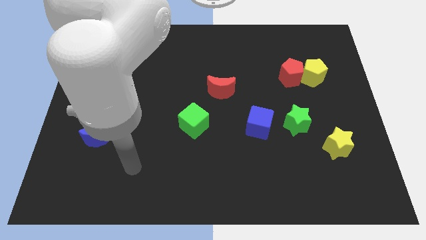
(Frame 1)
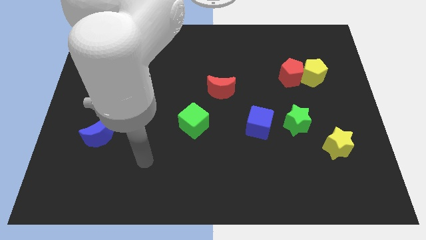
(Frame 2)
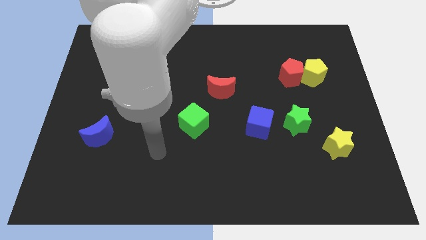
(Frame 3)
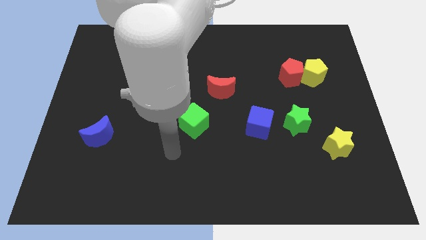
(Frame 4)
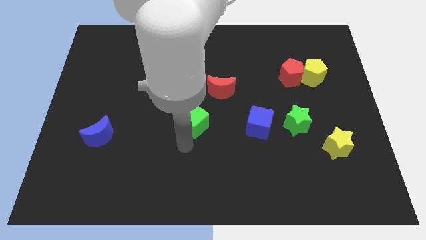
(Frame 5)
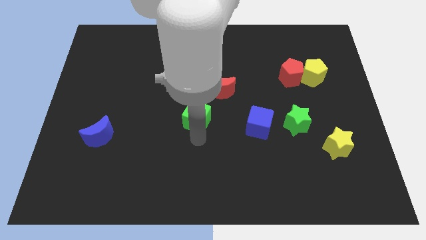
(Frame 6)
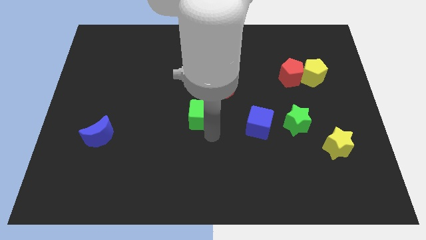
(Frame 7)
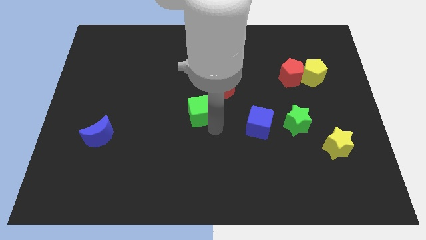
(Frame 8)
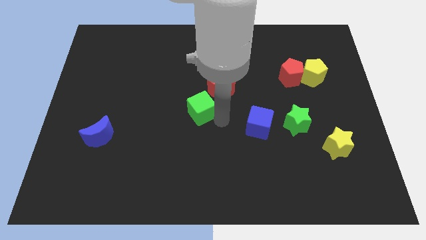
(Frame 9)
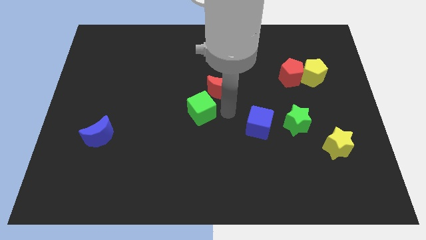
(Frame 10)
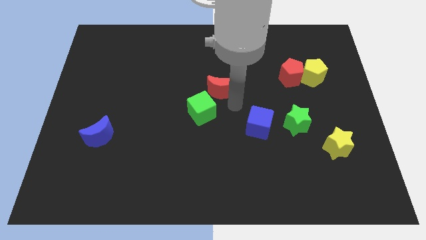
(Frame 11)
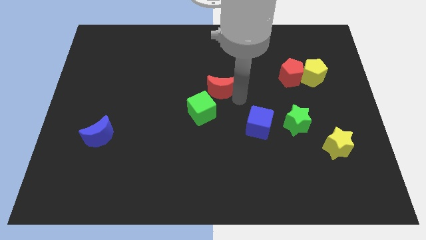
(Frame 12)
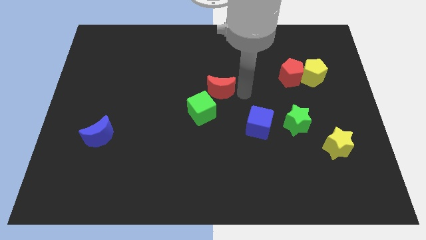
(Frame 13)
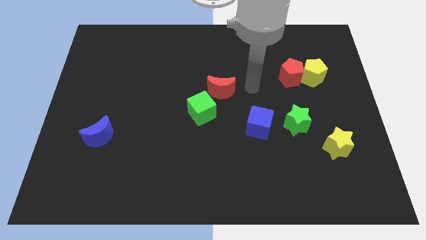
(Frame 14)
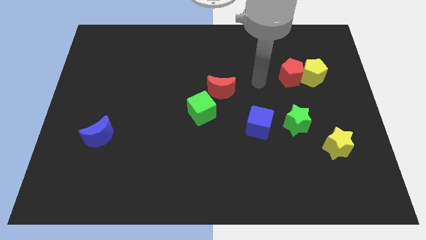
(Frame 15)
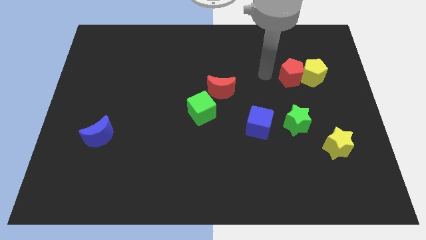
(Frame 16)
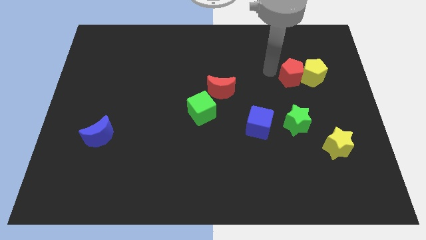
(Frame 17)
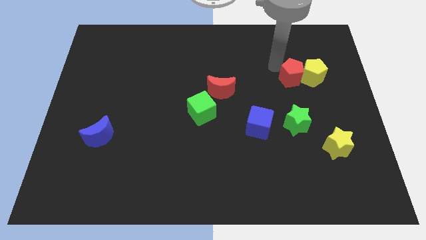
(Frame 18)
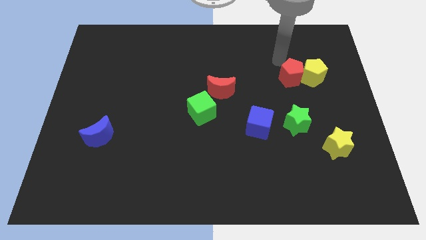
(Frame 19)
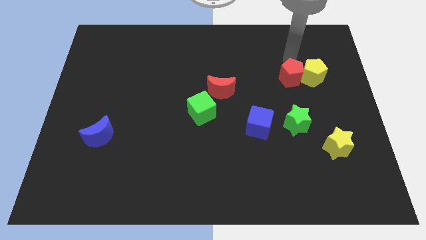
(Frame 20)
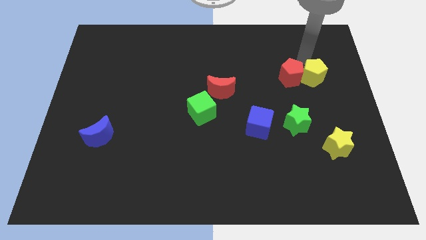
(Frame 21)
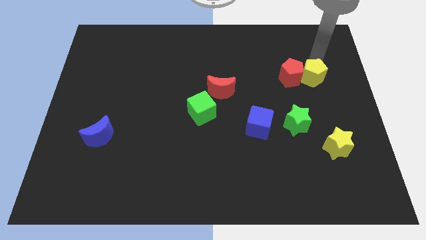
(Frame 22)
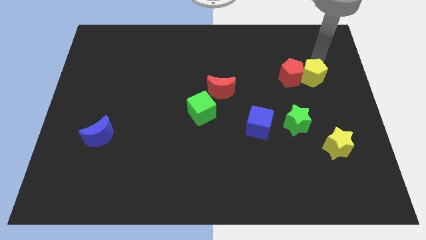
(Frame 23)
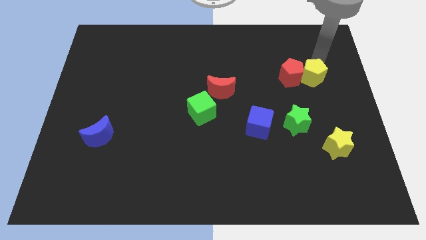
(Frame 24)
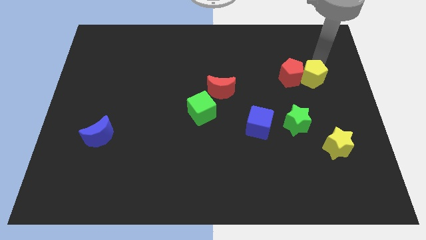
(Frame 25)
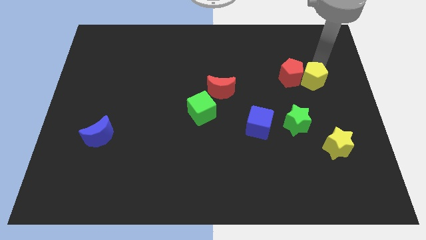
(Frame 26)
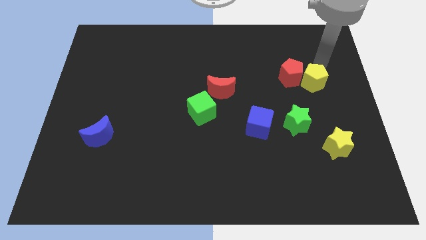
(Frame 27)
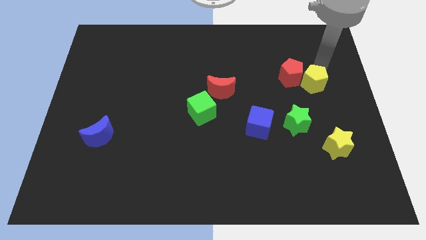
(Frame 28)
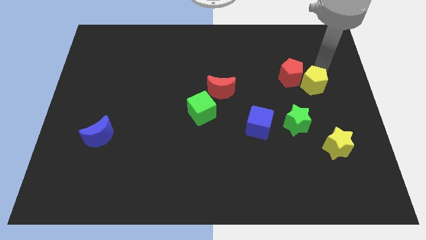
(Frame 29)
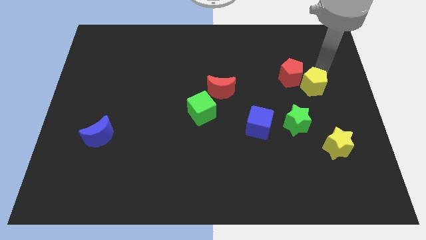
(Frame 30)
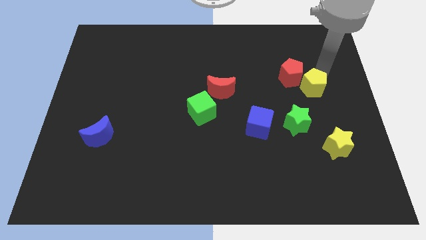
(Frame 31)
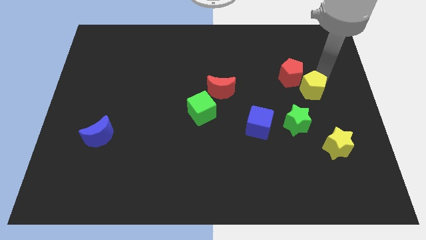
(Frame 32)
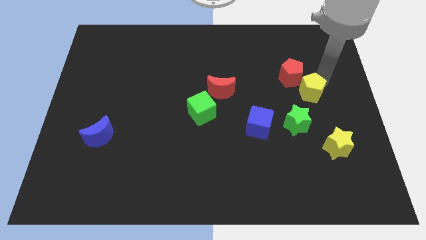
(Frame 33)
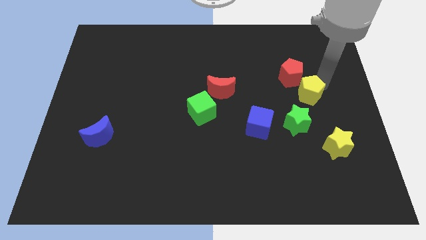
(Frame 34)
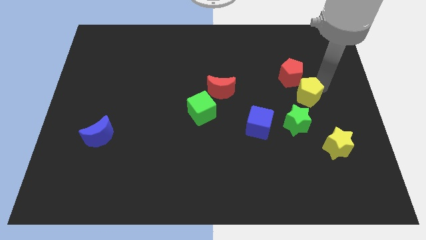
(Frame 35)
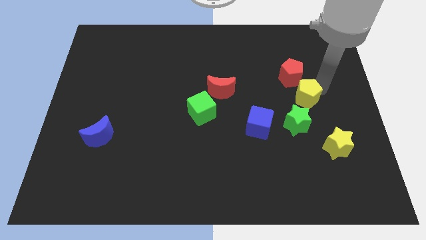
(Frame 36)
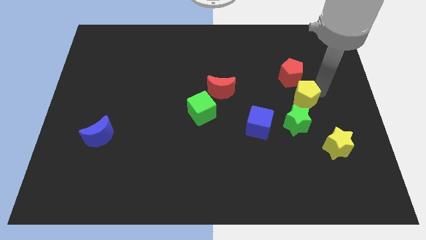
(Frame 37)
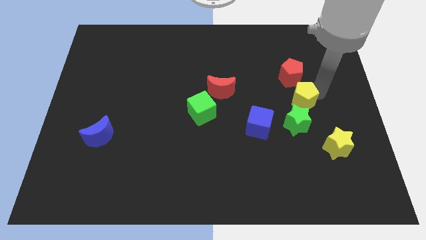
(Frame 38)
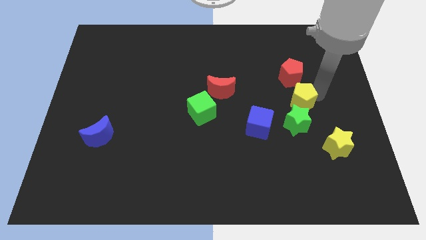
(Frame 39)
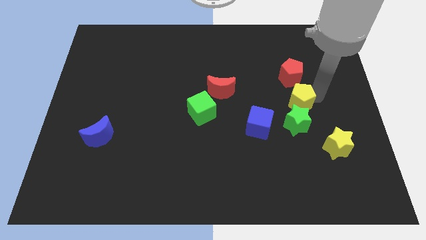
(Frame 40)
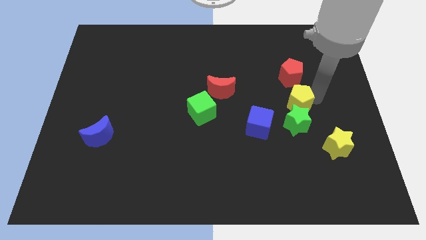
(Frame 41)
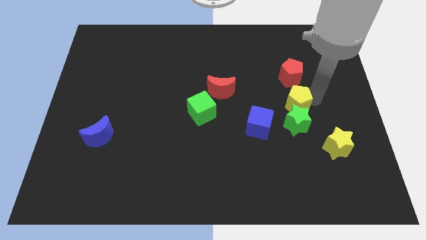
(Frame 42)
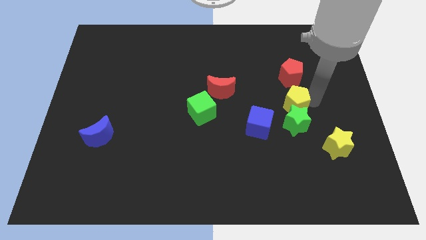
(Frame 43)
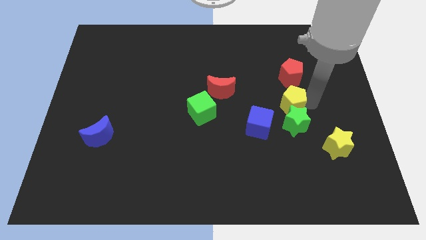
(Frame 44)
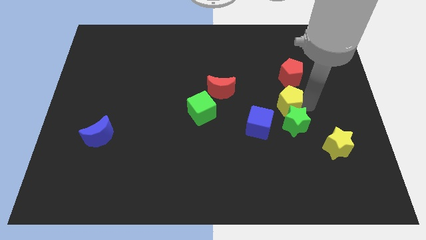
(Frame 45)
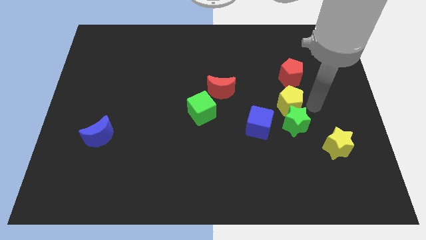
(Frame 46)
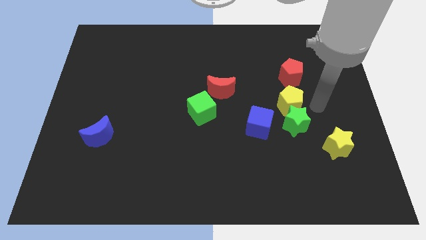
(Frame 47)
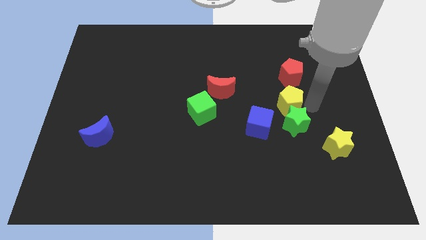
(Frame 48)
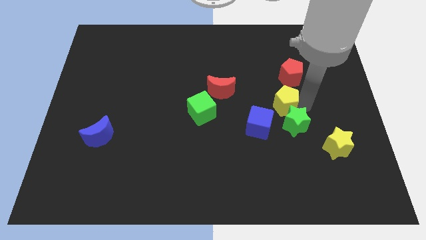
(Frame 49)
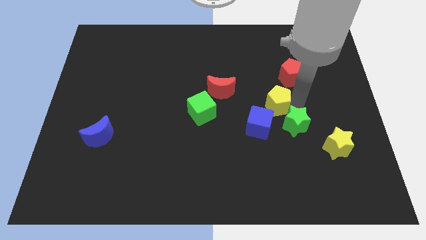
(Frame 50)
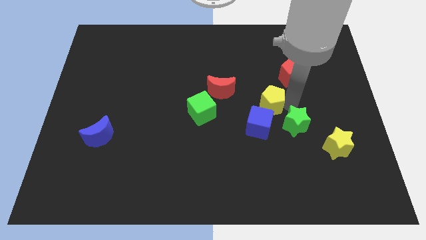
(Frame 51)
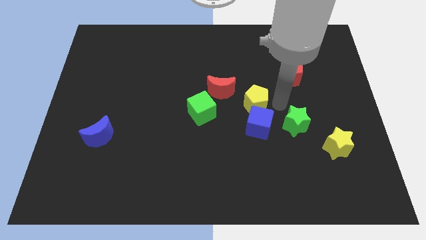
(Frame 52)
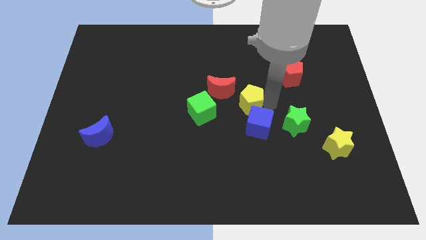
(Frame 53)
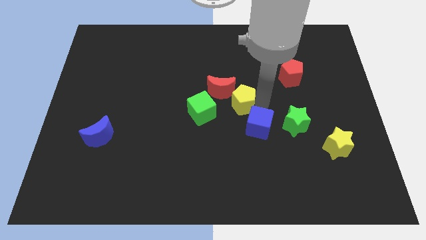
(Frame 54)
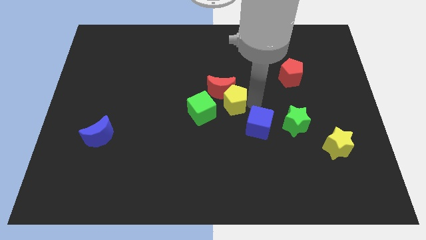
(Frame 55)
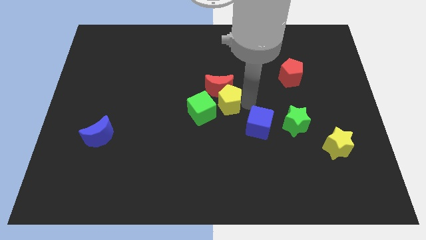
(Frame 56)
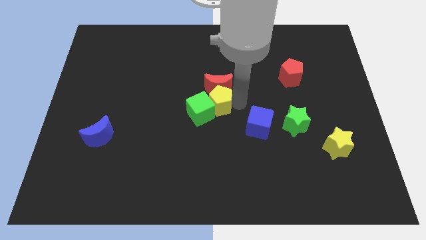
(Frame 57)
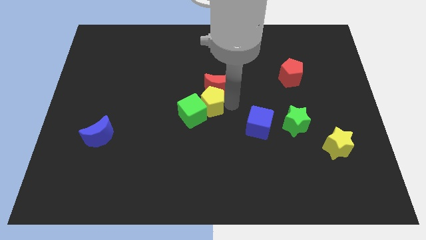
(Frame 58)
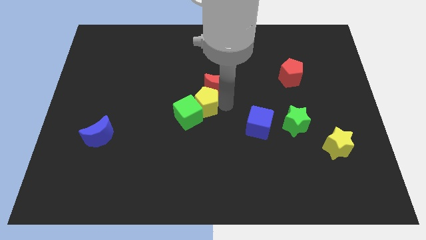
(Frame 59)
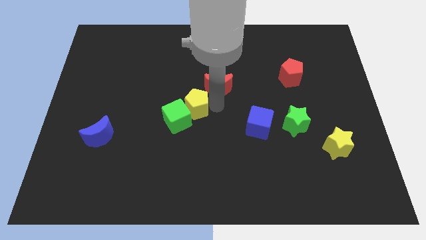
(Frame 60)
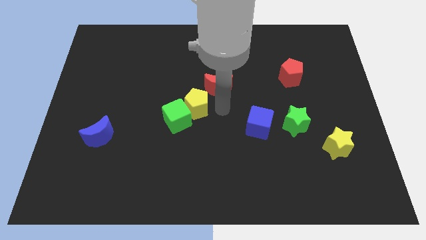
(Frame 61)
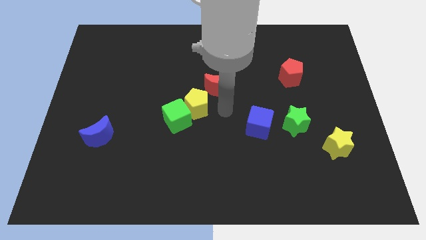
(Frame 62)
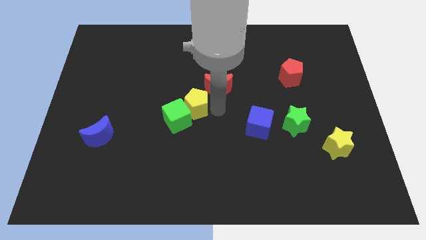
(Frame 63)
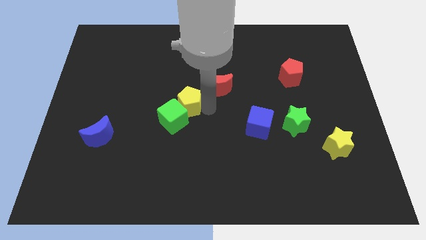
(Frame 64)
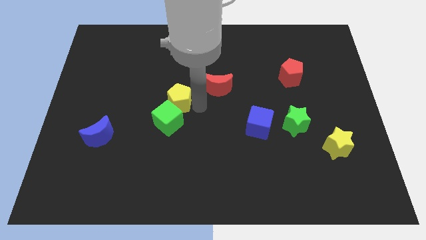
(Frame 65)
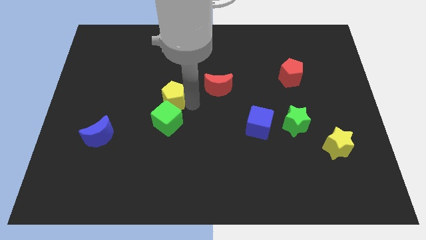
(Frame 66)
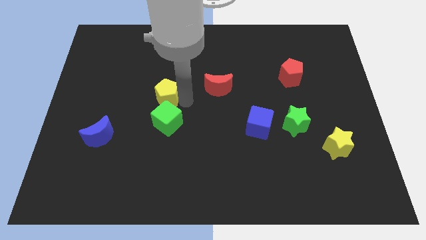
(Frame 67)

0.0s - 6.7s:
push the yellow pentagon to the top left of the green cube
